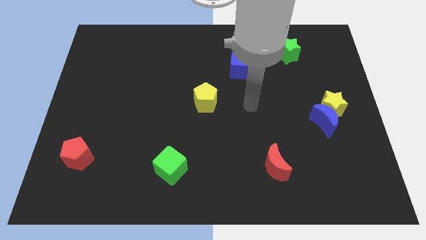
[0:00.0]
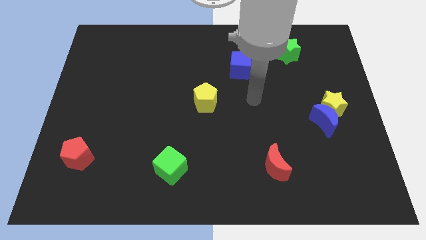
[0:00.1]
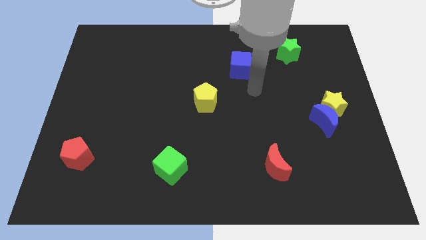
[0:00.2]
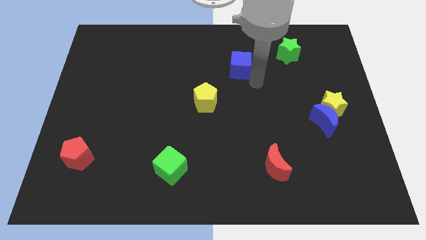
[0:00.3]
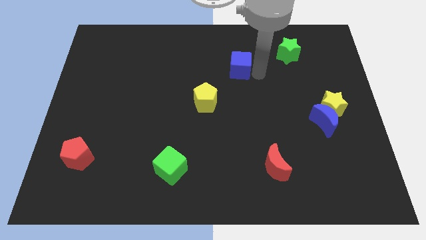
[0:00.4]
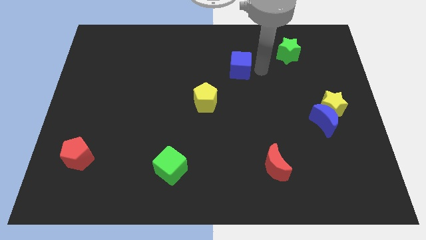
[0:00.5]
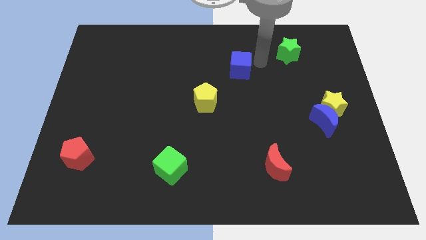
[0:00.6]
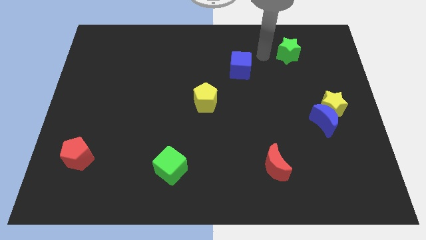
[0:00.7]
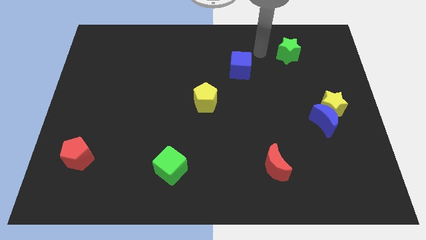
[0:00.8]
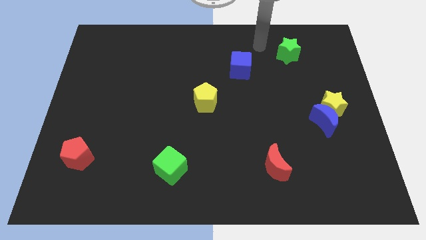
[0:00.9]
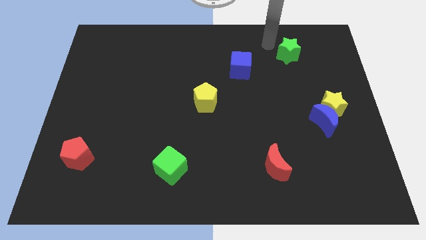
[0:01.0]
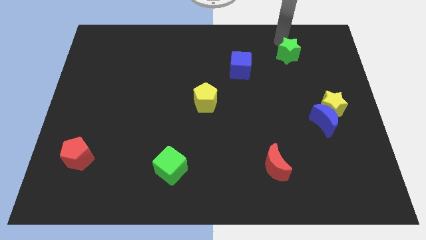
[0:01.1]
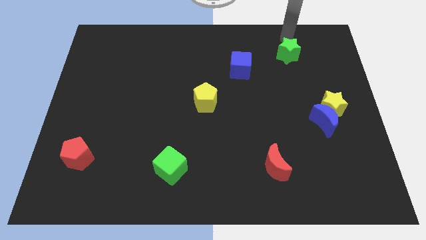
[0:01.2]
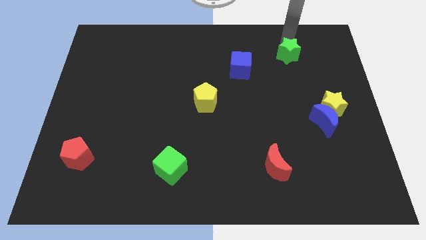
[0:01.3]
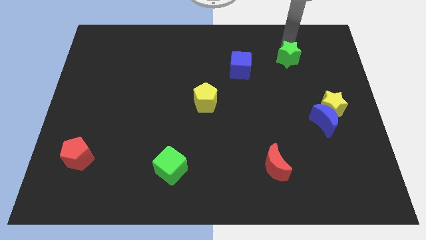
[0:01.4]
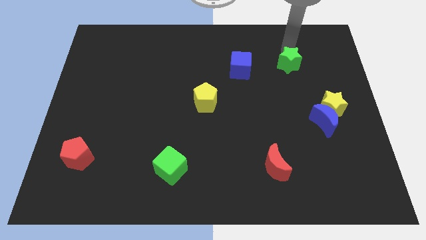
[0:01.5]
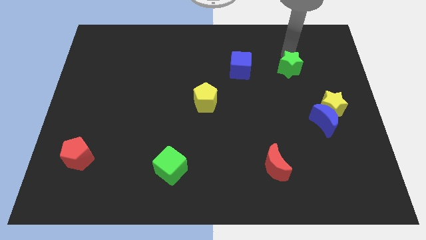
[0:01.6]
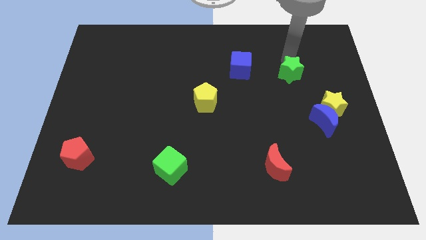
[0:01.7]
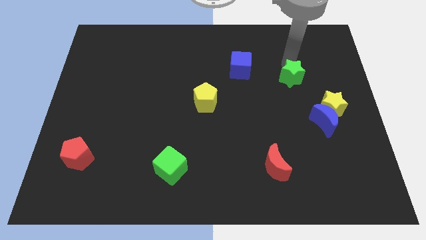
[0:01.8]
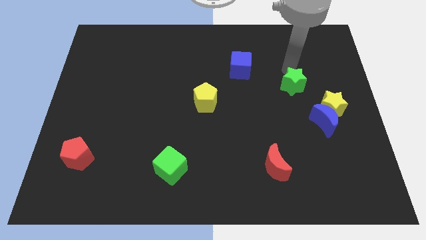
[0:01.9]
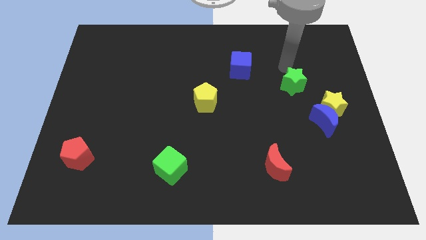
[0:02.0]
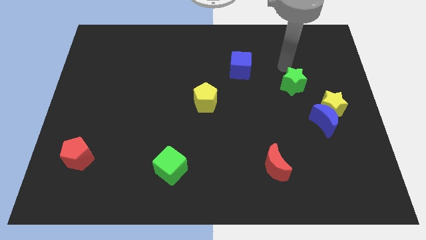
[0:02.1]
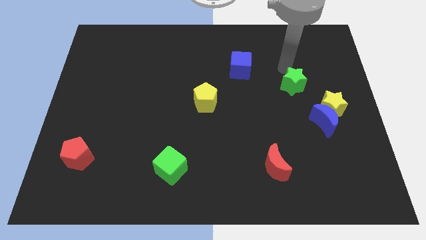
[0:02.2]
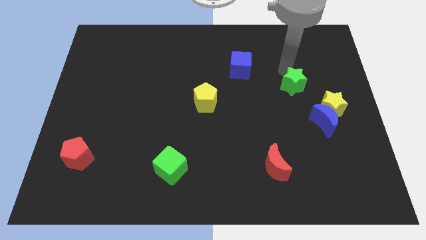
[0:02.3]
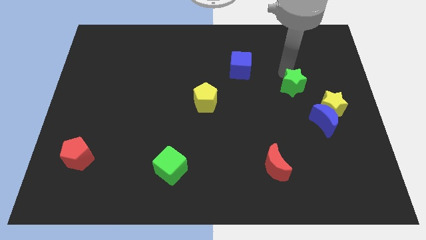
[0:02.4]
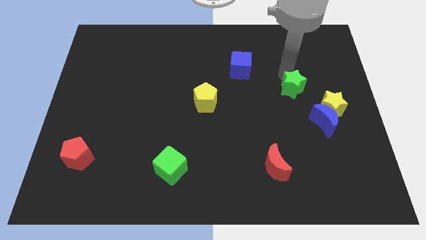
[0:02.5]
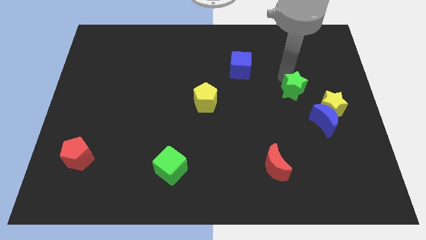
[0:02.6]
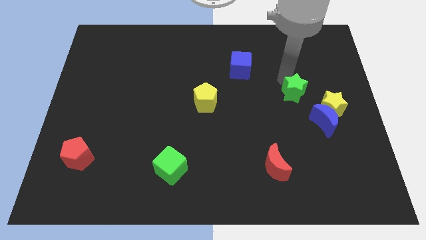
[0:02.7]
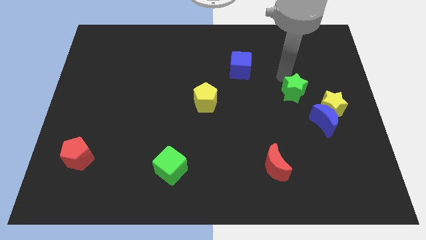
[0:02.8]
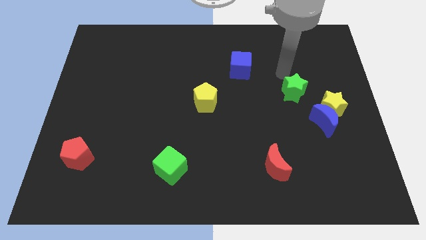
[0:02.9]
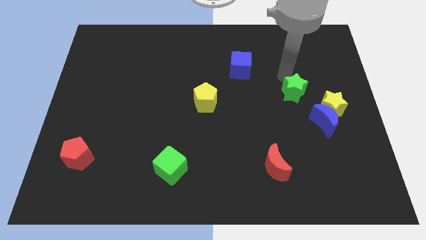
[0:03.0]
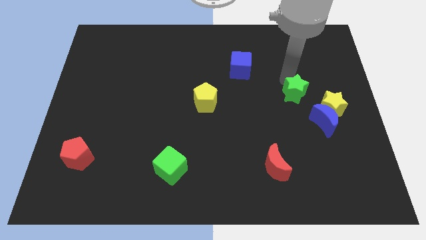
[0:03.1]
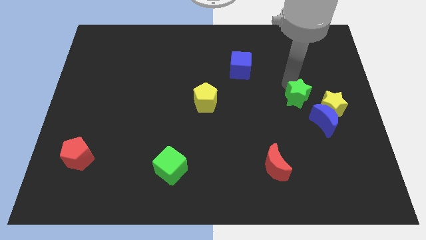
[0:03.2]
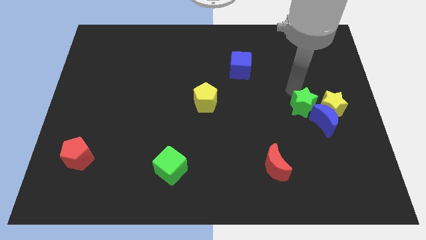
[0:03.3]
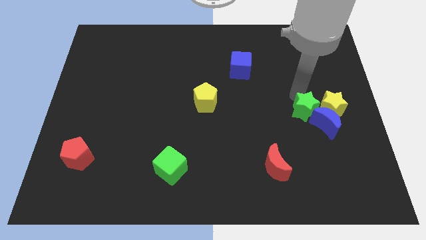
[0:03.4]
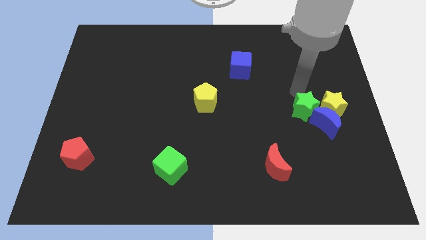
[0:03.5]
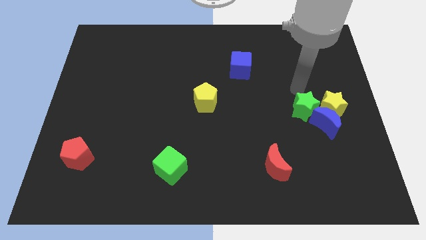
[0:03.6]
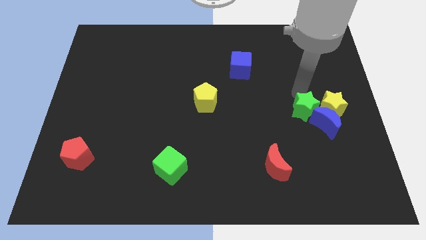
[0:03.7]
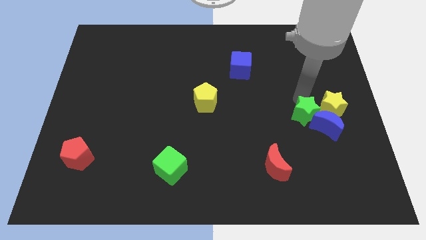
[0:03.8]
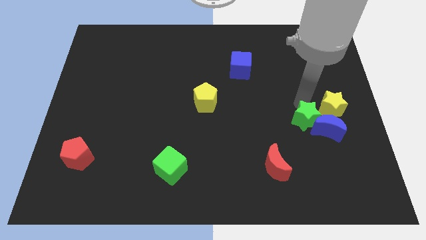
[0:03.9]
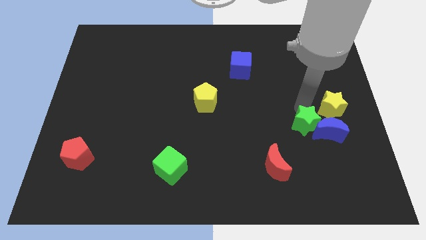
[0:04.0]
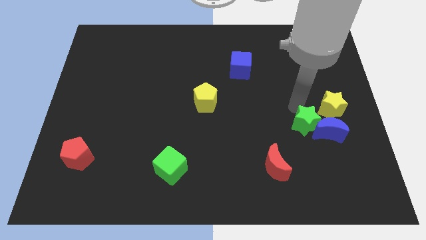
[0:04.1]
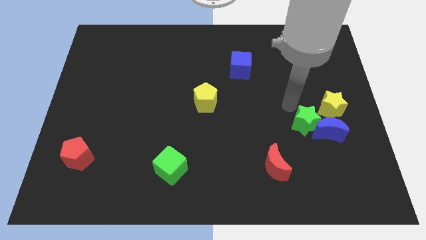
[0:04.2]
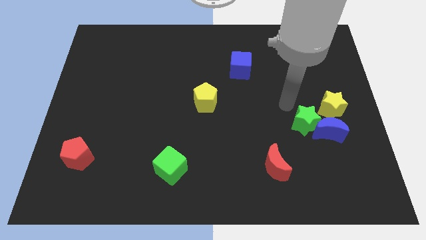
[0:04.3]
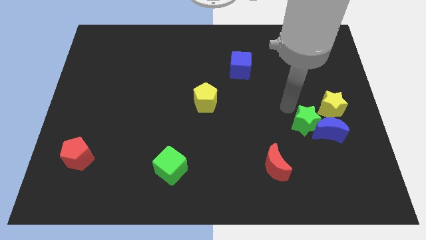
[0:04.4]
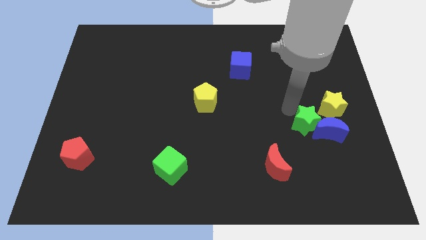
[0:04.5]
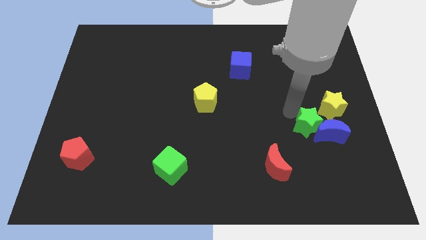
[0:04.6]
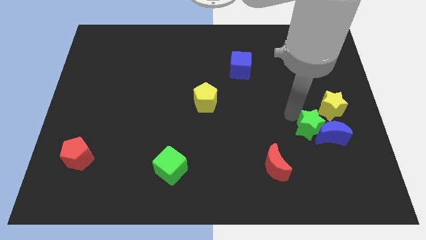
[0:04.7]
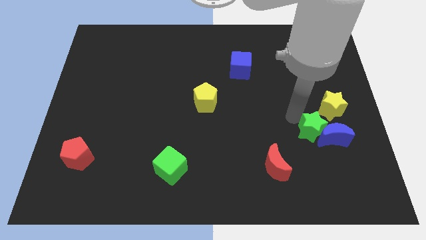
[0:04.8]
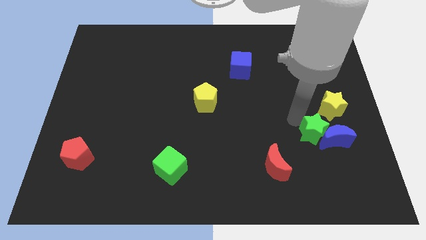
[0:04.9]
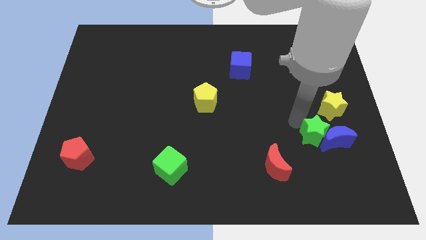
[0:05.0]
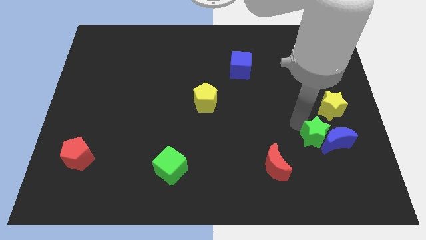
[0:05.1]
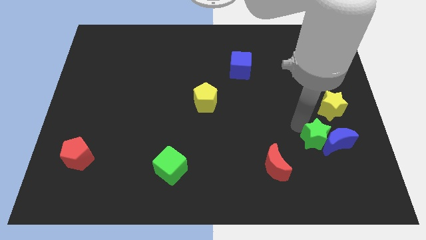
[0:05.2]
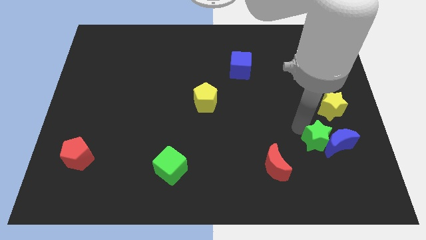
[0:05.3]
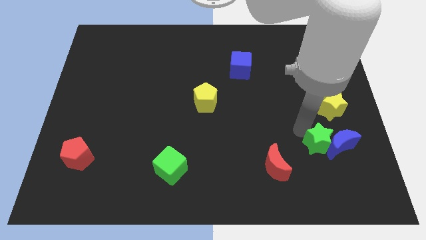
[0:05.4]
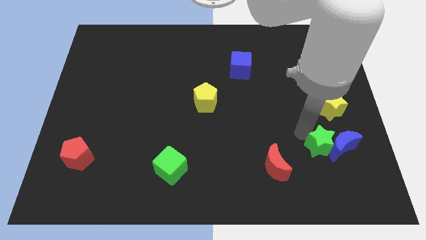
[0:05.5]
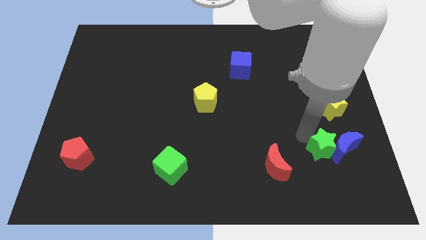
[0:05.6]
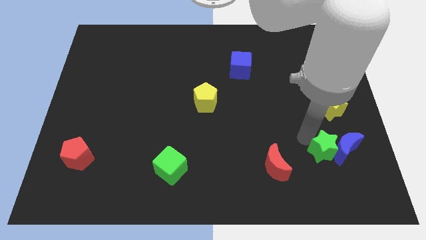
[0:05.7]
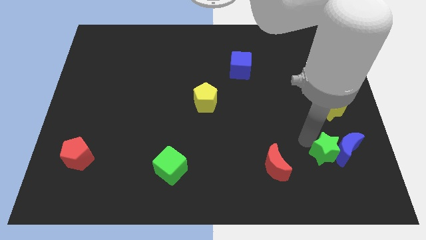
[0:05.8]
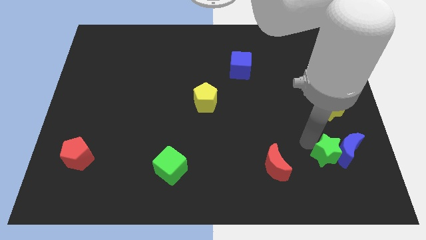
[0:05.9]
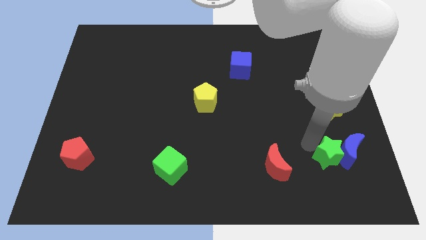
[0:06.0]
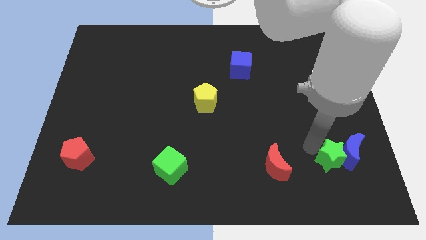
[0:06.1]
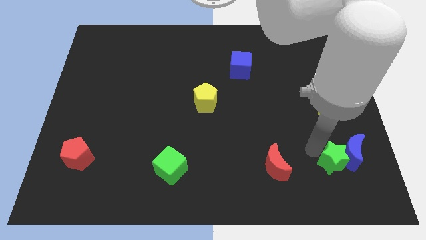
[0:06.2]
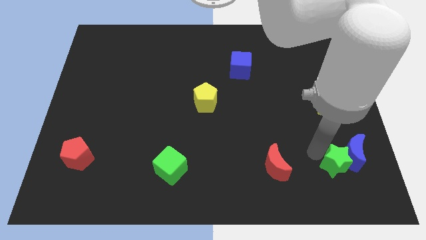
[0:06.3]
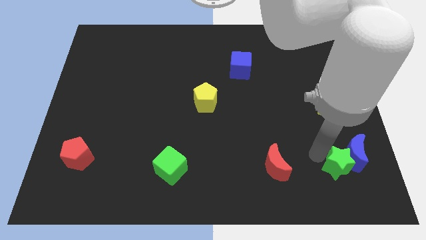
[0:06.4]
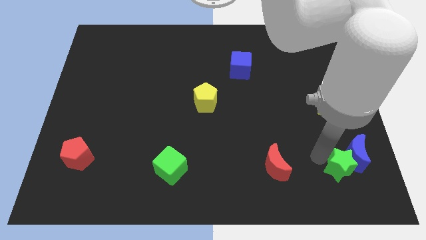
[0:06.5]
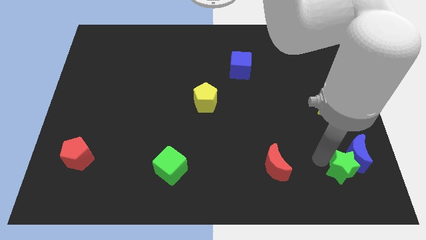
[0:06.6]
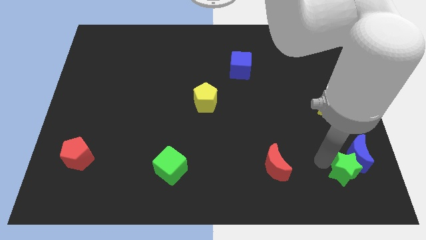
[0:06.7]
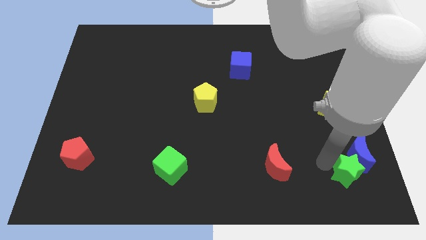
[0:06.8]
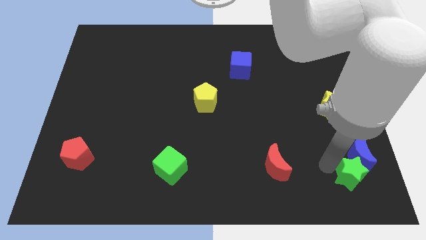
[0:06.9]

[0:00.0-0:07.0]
move the green star to the lower right corner
